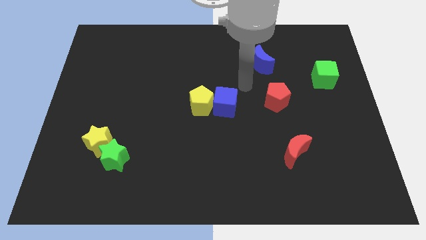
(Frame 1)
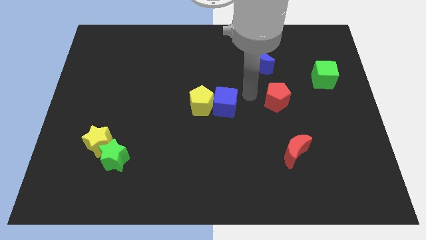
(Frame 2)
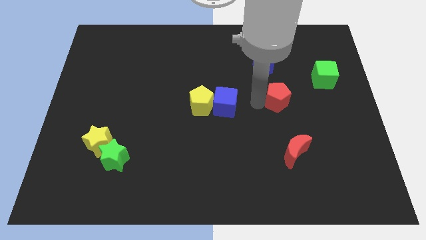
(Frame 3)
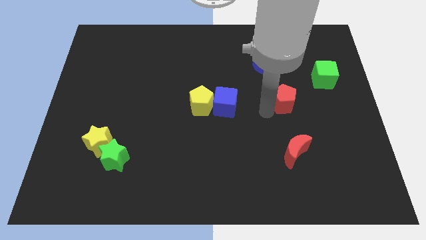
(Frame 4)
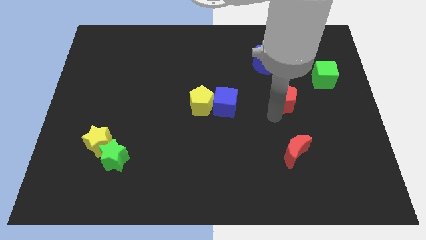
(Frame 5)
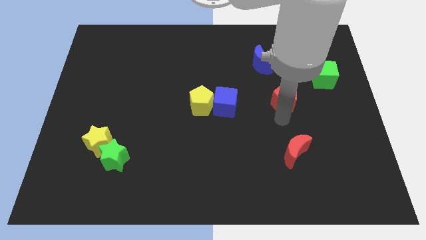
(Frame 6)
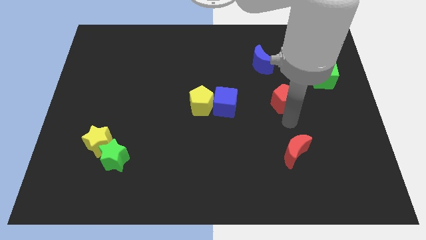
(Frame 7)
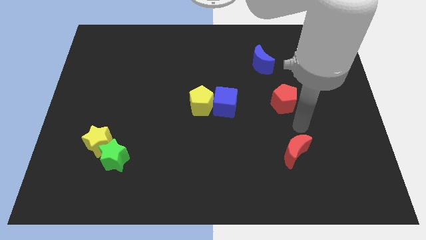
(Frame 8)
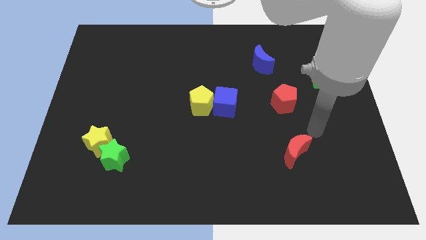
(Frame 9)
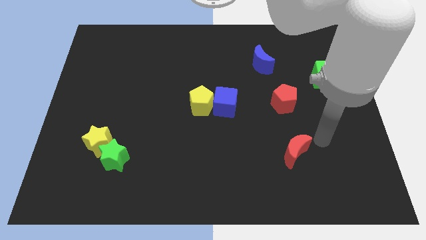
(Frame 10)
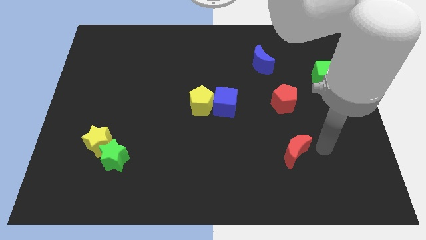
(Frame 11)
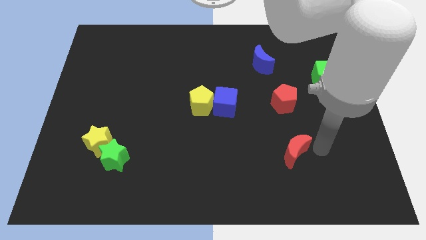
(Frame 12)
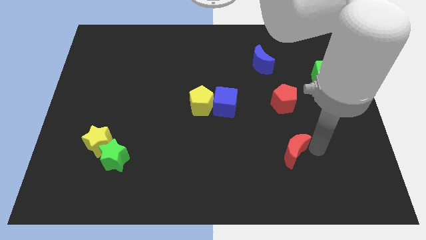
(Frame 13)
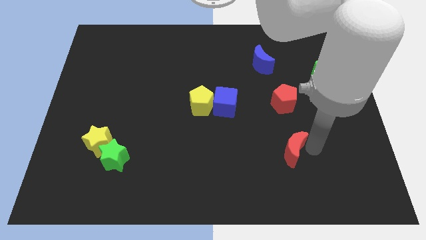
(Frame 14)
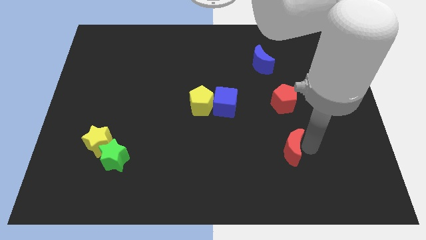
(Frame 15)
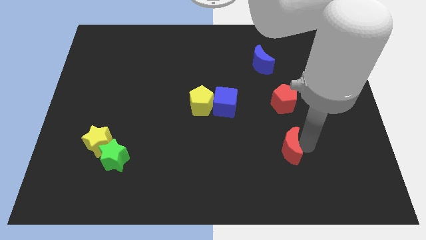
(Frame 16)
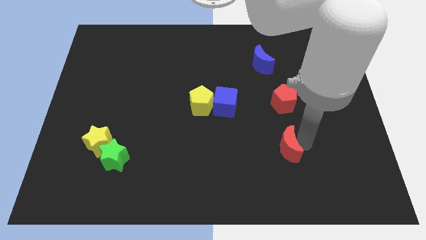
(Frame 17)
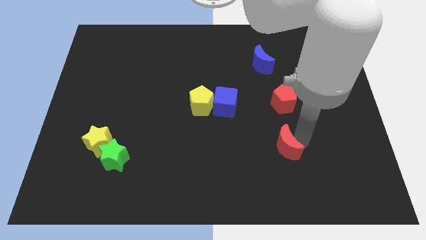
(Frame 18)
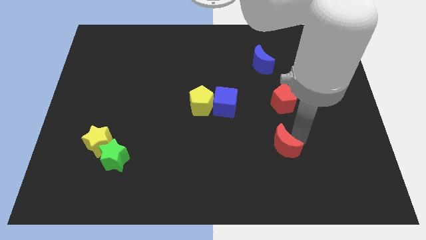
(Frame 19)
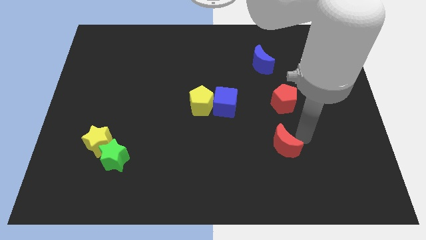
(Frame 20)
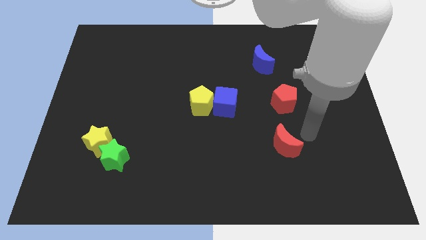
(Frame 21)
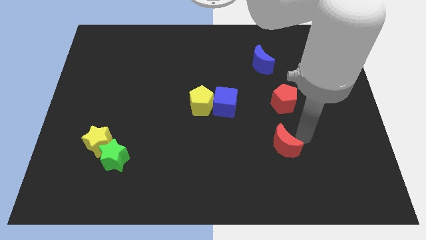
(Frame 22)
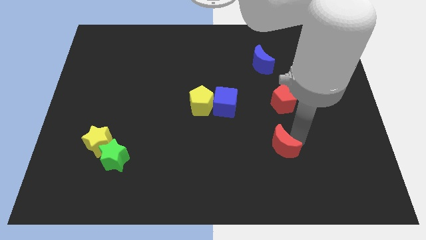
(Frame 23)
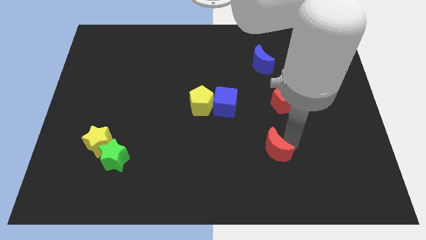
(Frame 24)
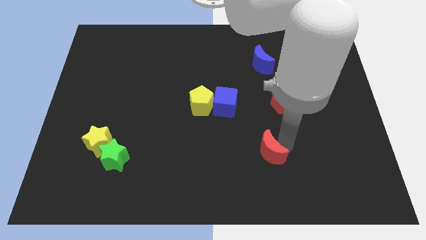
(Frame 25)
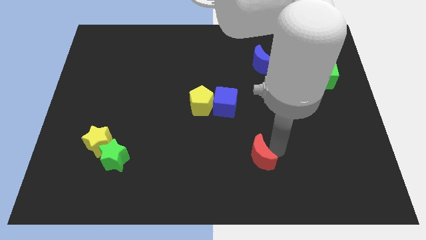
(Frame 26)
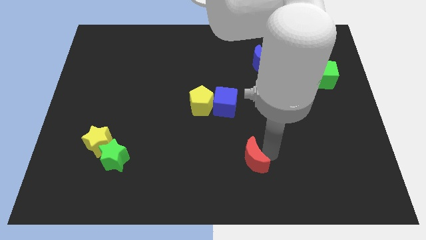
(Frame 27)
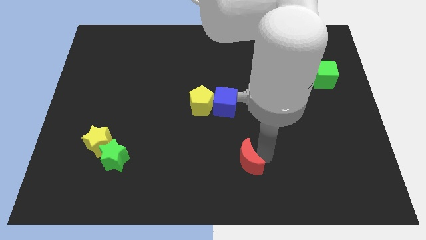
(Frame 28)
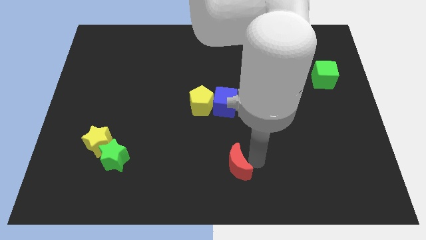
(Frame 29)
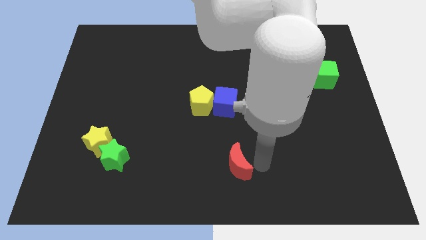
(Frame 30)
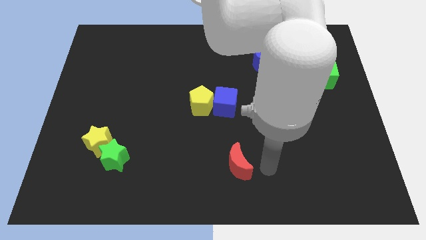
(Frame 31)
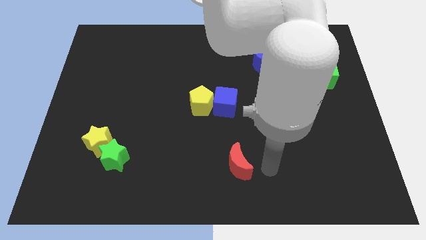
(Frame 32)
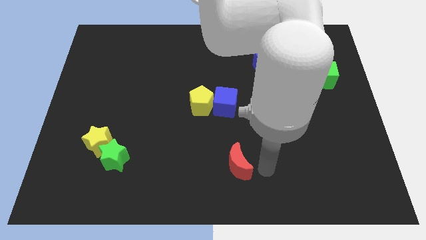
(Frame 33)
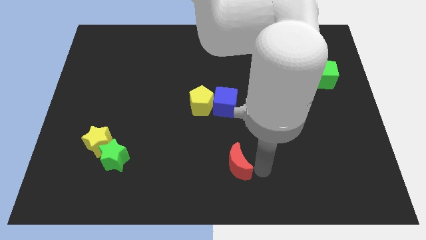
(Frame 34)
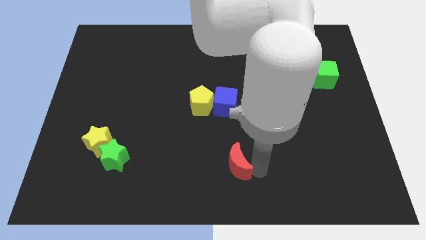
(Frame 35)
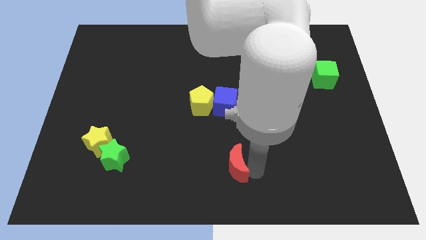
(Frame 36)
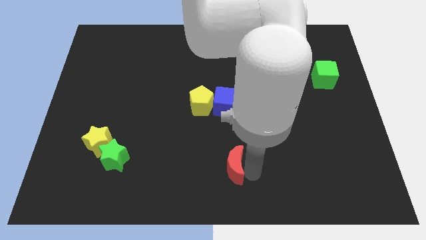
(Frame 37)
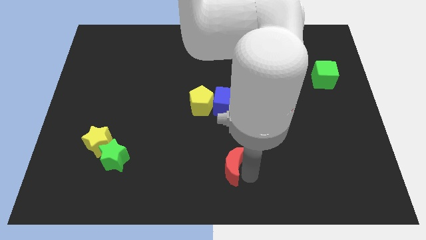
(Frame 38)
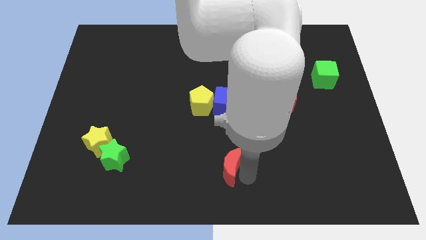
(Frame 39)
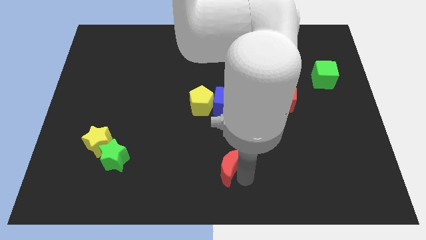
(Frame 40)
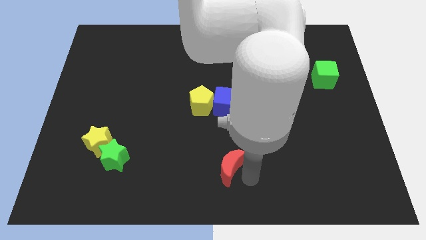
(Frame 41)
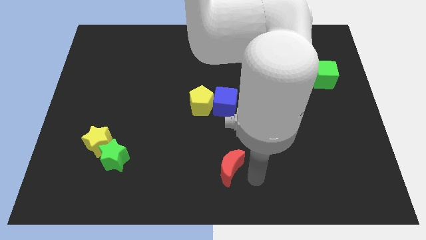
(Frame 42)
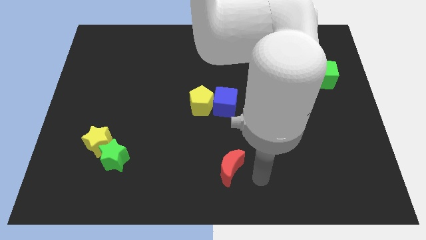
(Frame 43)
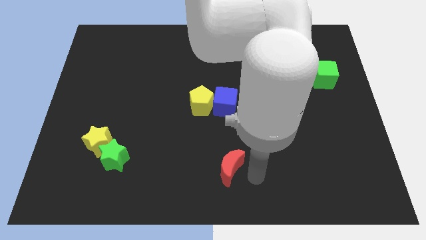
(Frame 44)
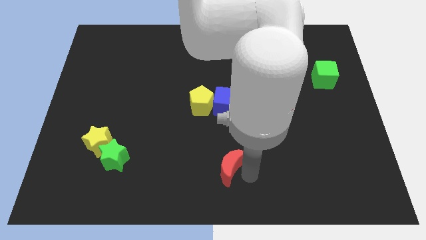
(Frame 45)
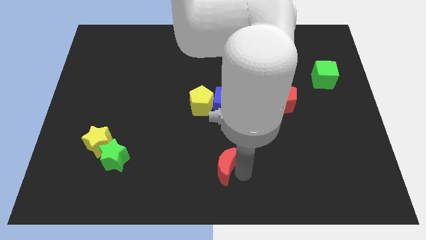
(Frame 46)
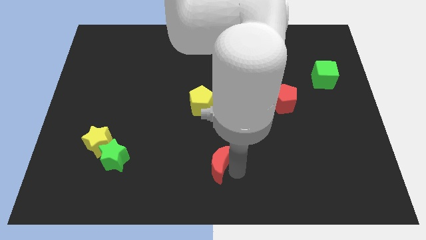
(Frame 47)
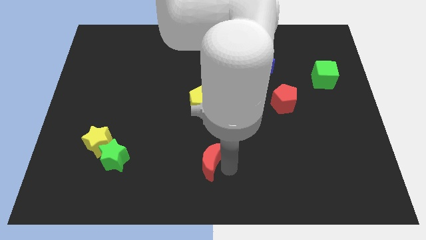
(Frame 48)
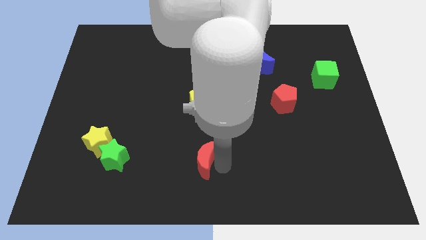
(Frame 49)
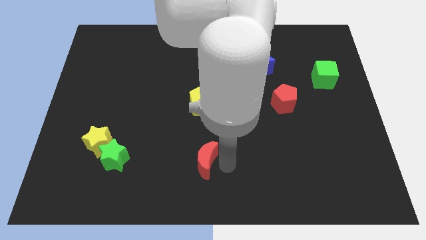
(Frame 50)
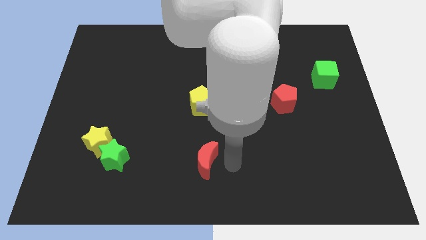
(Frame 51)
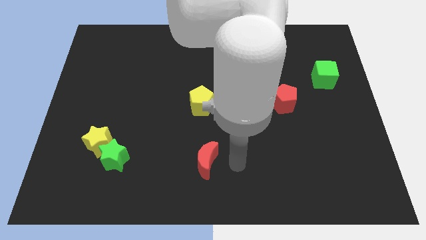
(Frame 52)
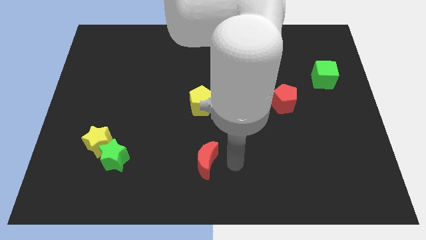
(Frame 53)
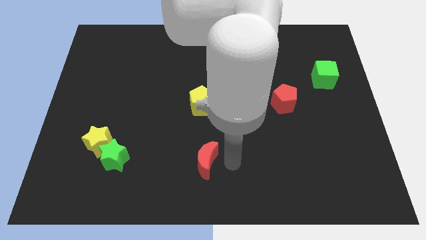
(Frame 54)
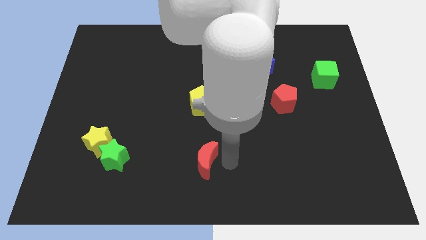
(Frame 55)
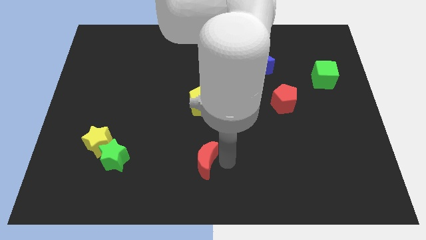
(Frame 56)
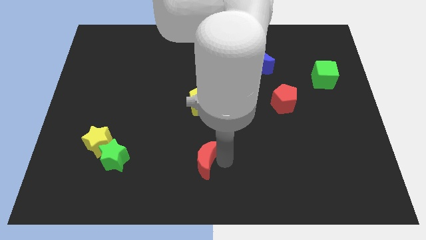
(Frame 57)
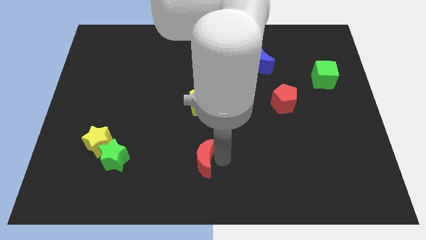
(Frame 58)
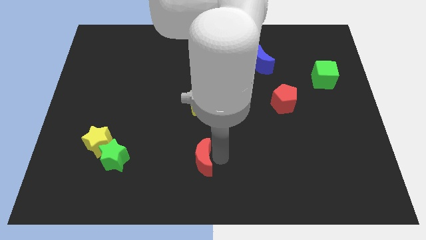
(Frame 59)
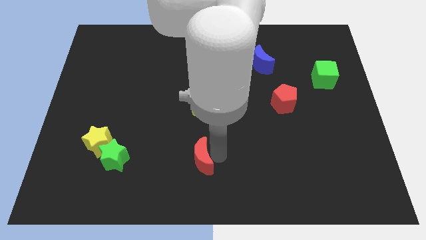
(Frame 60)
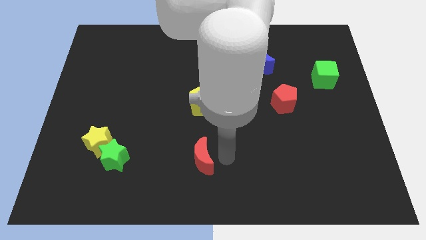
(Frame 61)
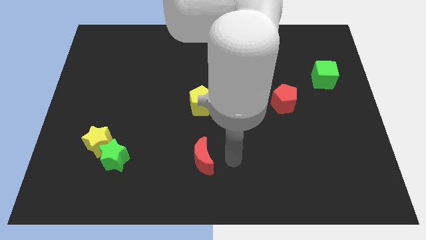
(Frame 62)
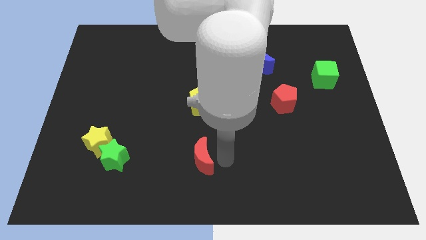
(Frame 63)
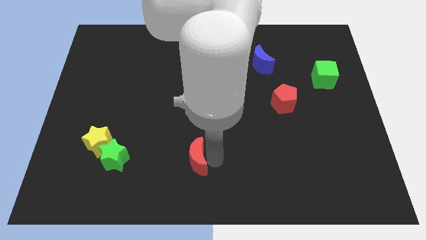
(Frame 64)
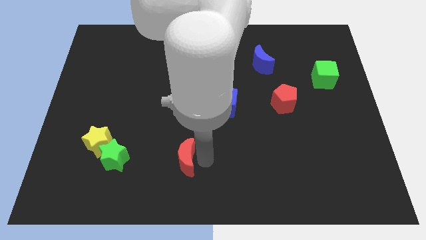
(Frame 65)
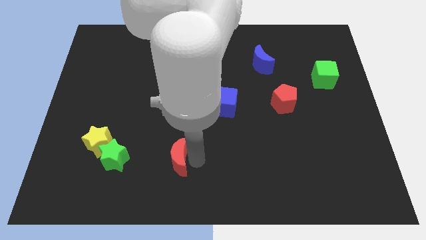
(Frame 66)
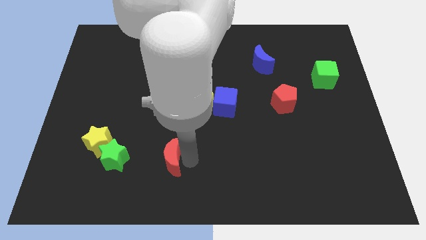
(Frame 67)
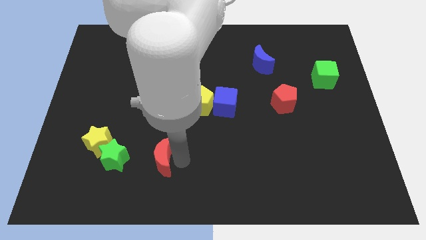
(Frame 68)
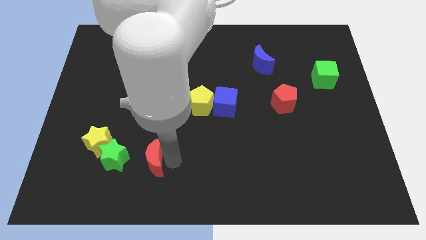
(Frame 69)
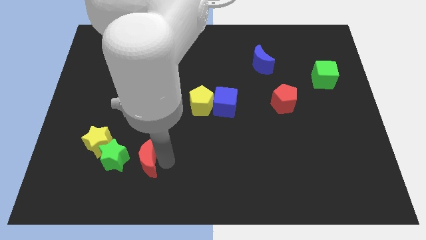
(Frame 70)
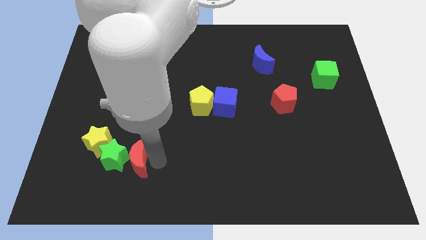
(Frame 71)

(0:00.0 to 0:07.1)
move the red moon to the green star

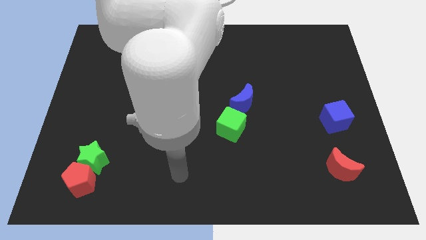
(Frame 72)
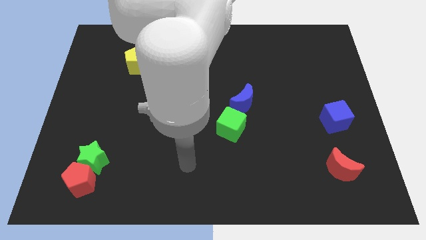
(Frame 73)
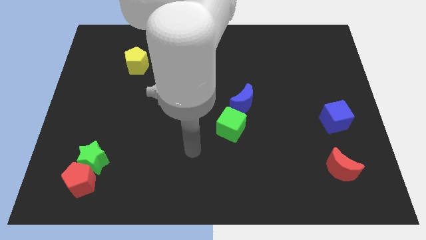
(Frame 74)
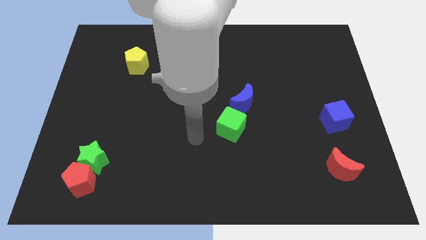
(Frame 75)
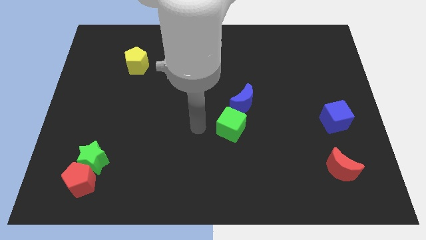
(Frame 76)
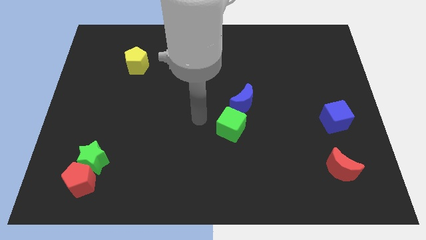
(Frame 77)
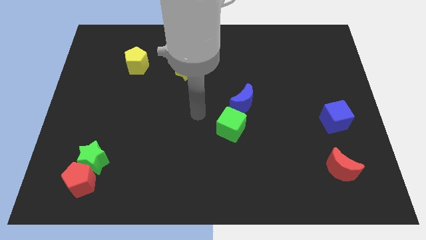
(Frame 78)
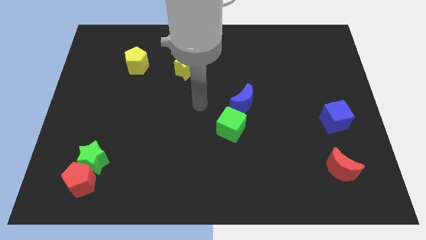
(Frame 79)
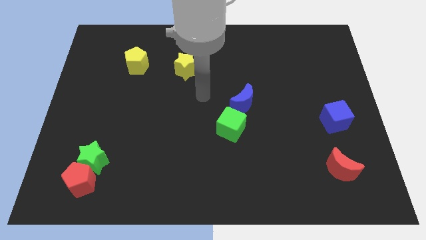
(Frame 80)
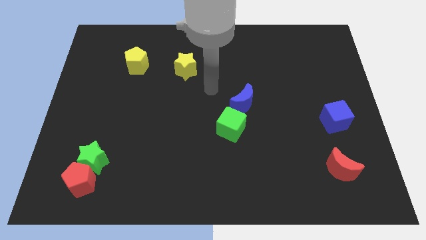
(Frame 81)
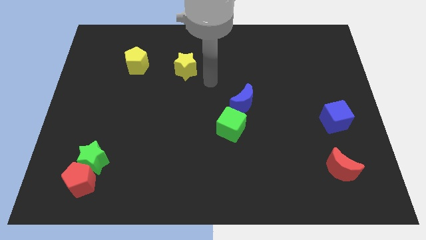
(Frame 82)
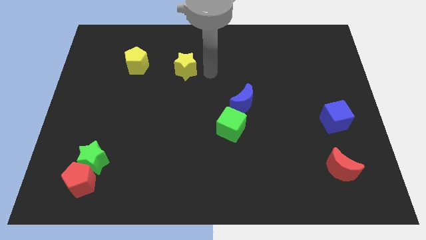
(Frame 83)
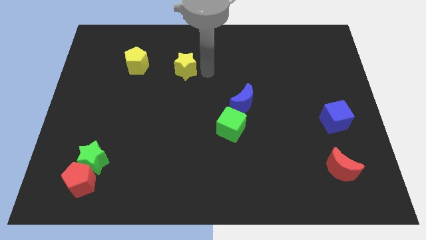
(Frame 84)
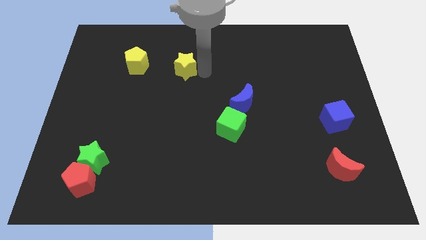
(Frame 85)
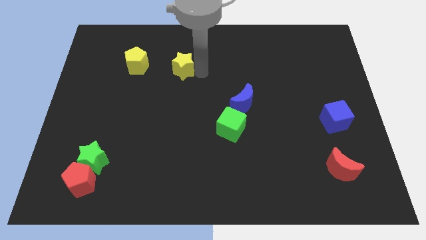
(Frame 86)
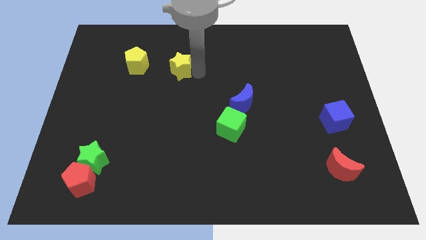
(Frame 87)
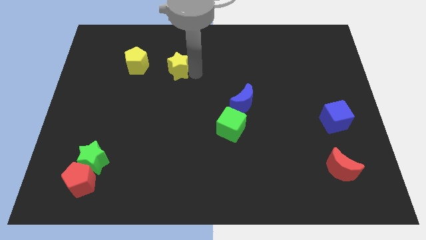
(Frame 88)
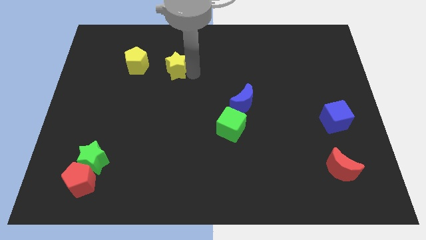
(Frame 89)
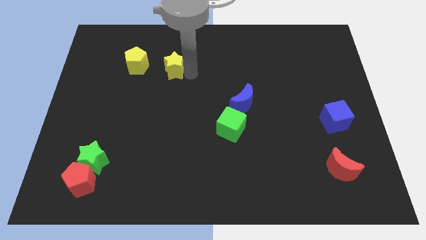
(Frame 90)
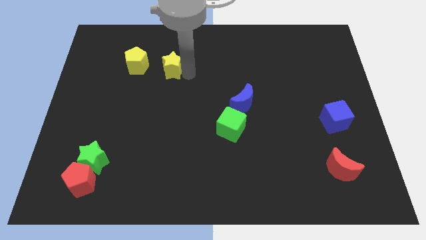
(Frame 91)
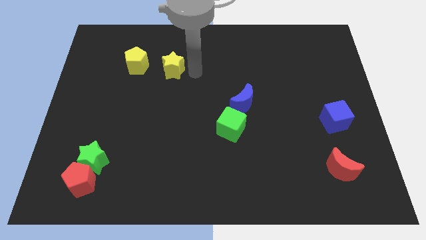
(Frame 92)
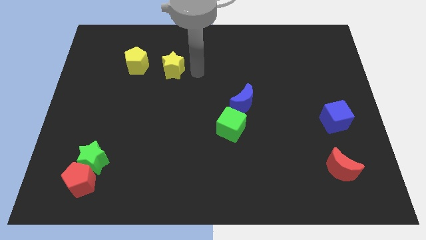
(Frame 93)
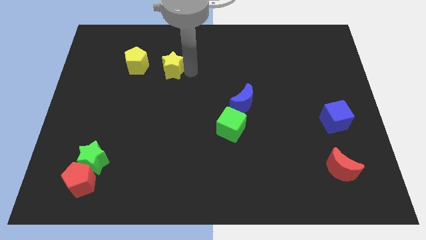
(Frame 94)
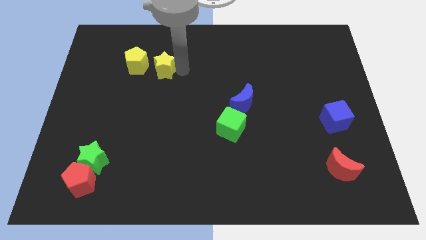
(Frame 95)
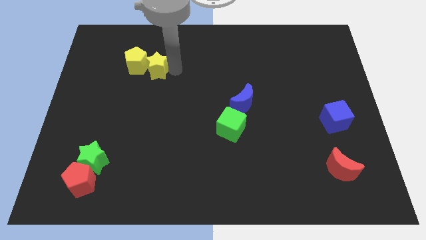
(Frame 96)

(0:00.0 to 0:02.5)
push the yellow star next to the yellow pentagon
